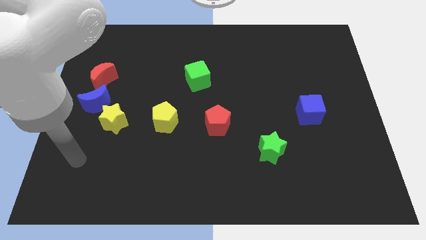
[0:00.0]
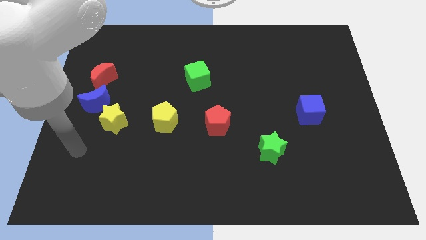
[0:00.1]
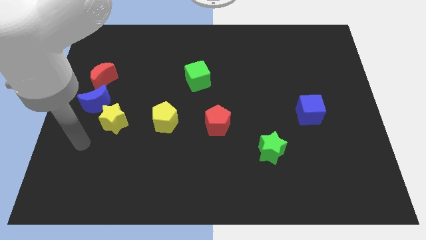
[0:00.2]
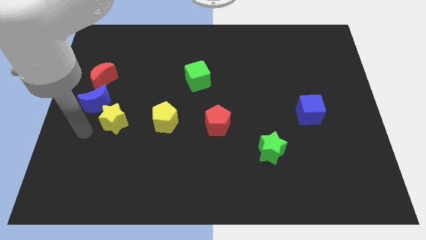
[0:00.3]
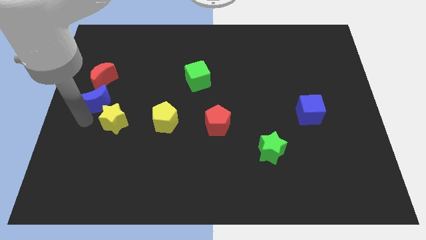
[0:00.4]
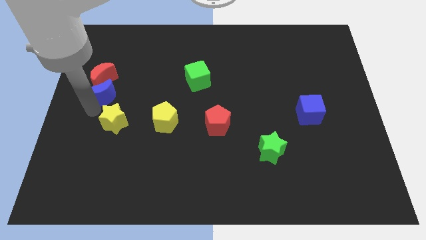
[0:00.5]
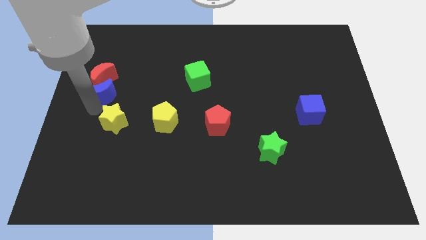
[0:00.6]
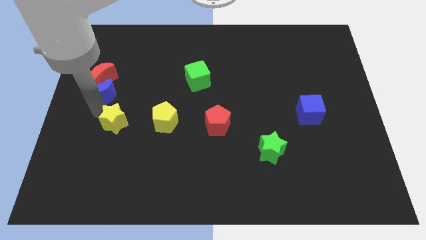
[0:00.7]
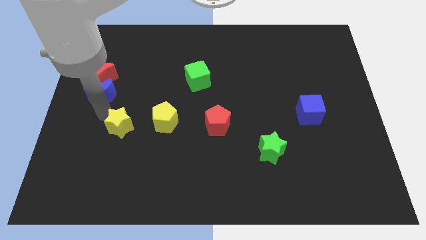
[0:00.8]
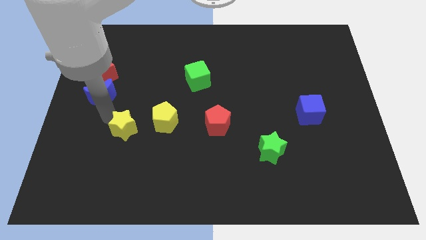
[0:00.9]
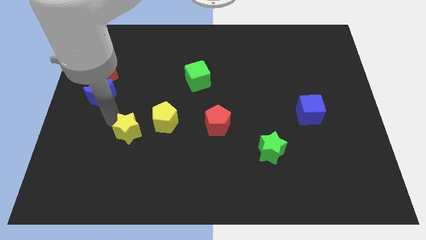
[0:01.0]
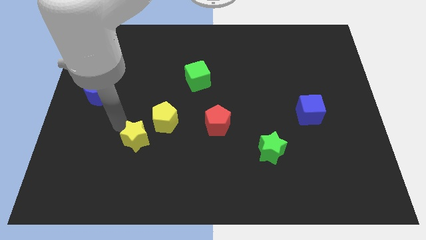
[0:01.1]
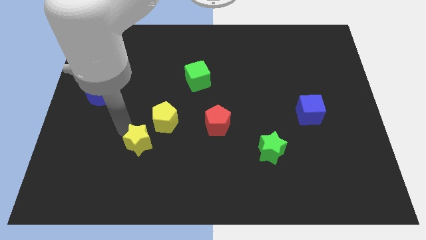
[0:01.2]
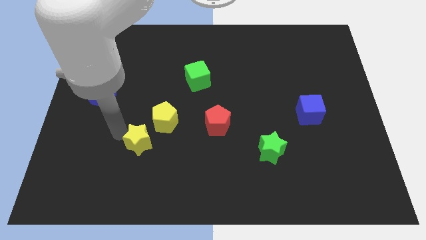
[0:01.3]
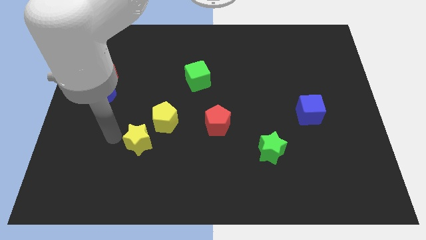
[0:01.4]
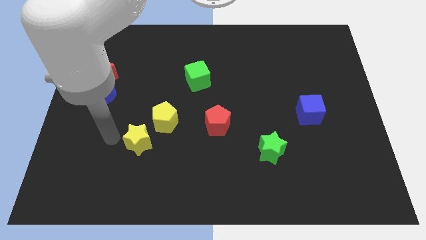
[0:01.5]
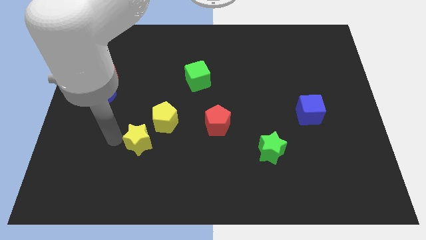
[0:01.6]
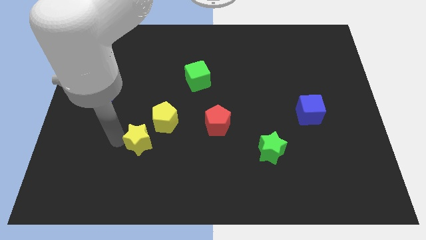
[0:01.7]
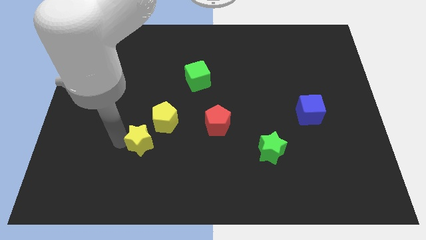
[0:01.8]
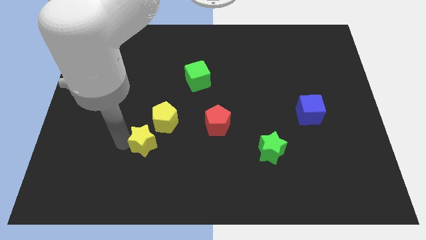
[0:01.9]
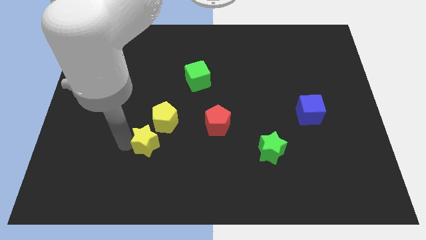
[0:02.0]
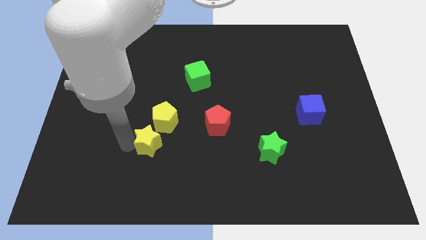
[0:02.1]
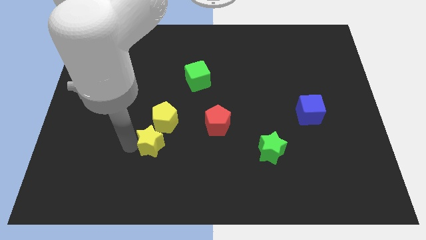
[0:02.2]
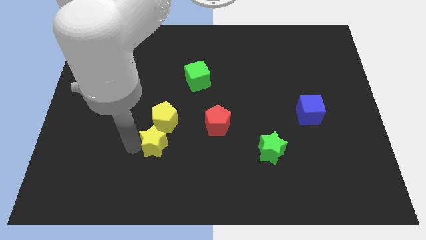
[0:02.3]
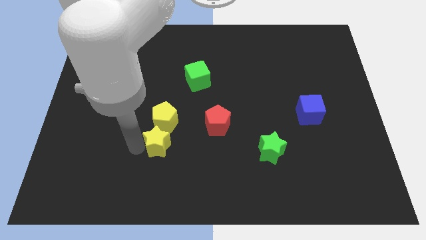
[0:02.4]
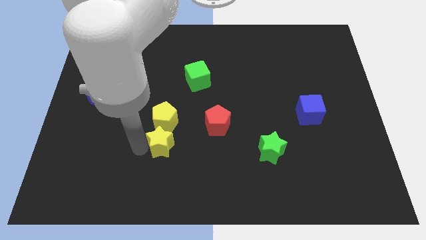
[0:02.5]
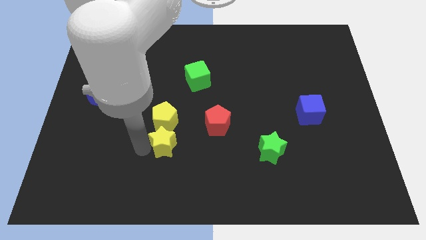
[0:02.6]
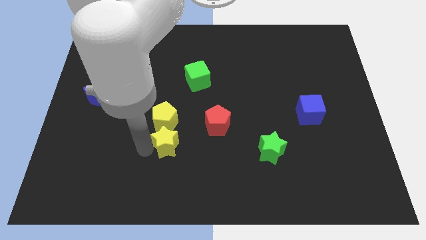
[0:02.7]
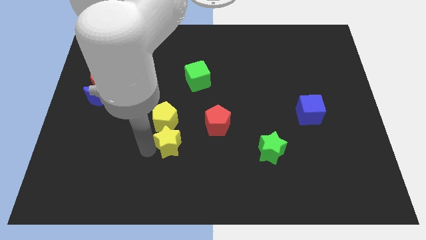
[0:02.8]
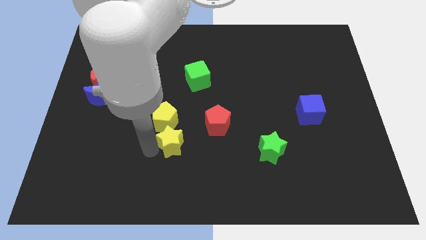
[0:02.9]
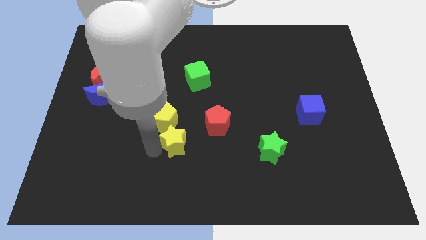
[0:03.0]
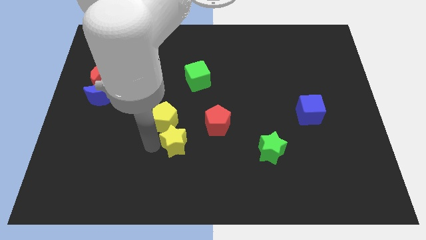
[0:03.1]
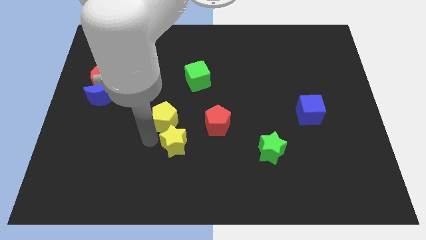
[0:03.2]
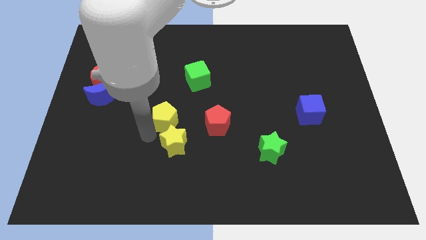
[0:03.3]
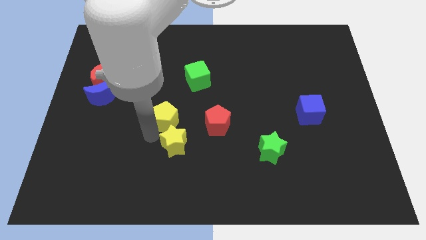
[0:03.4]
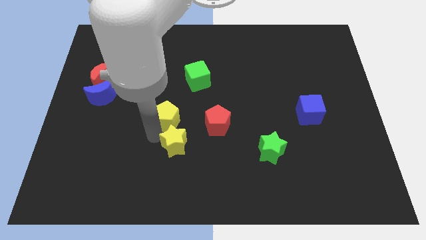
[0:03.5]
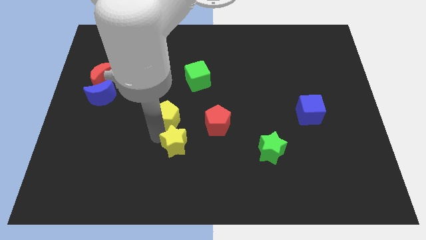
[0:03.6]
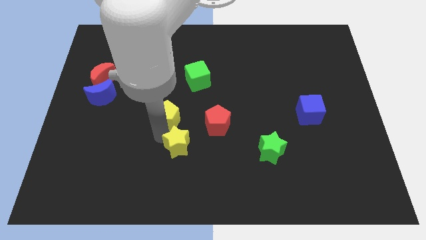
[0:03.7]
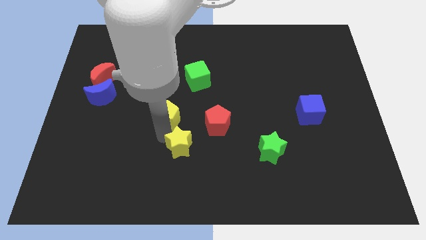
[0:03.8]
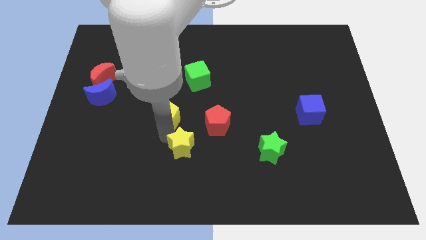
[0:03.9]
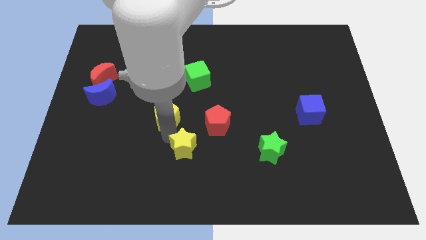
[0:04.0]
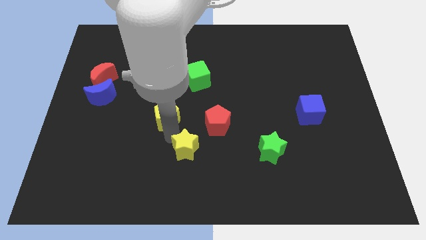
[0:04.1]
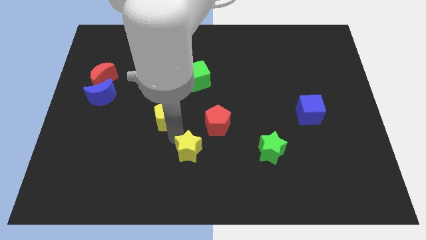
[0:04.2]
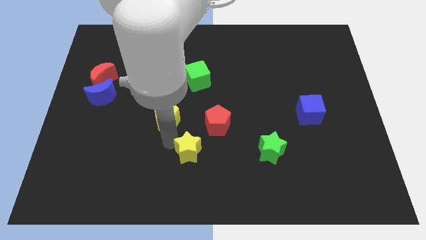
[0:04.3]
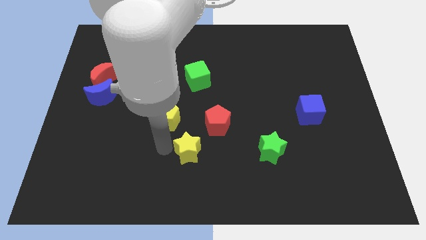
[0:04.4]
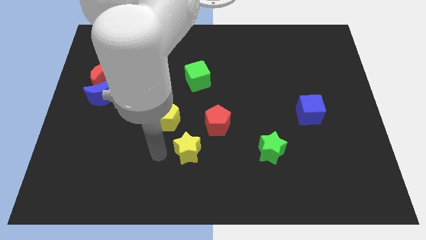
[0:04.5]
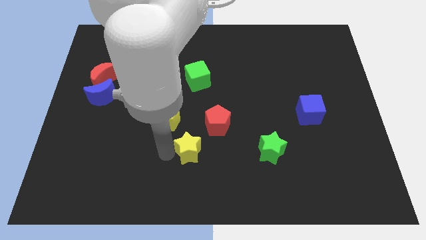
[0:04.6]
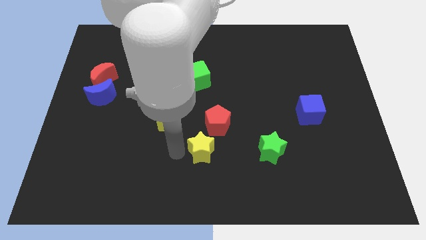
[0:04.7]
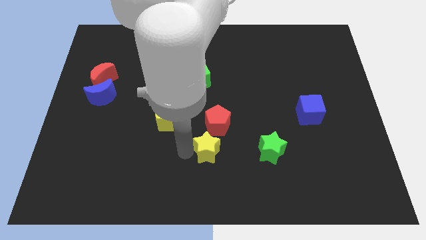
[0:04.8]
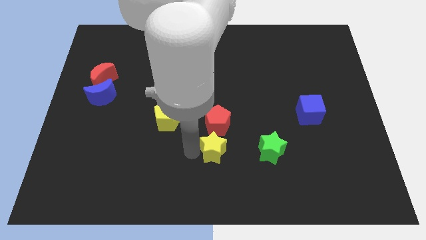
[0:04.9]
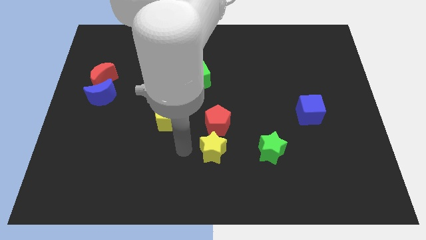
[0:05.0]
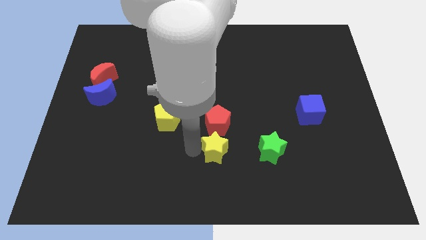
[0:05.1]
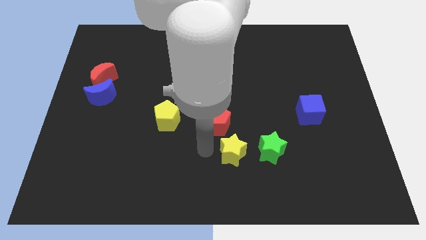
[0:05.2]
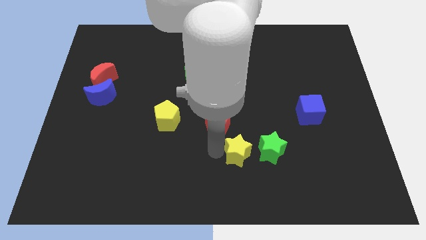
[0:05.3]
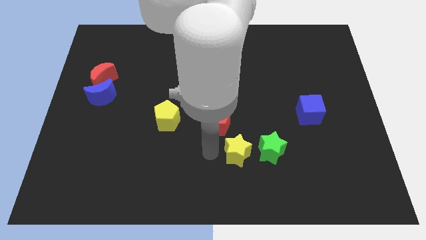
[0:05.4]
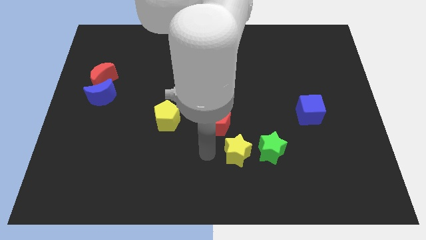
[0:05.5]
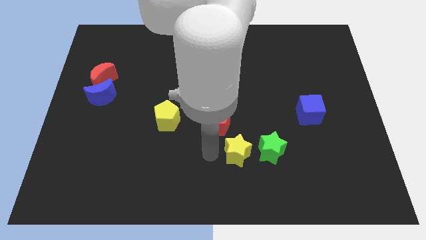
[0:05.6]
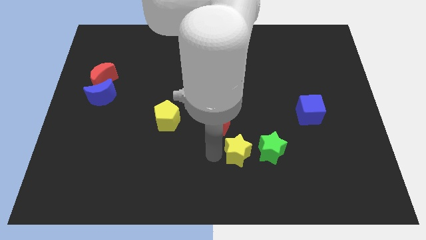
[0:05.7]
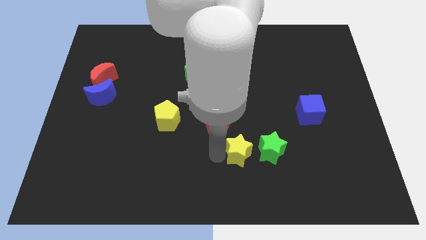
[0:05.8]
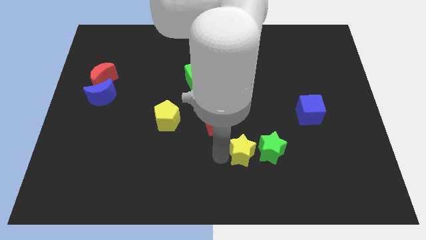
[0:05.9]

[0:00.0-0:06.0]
slide the yellow star towards the green star

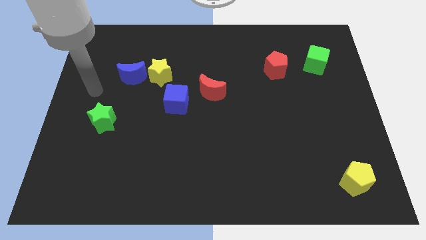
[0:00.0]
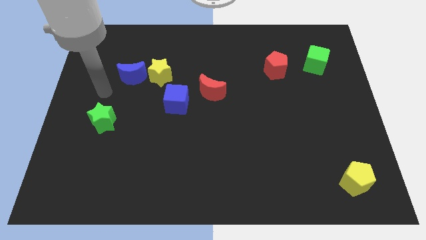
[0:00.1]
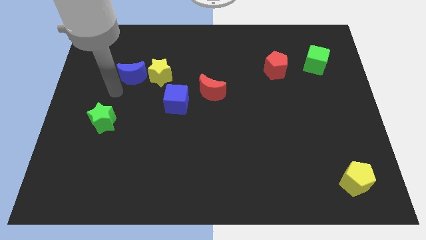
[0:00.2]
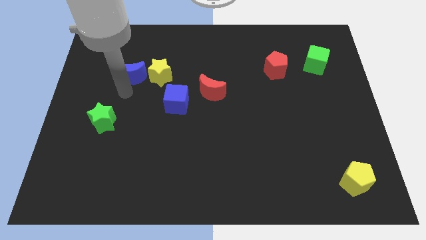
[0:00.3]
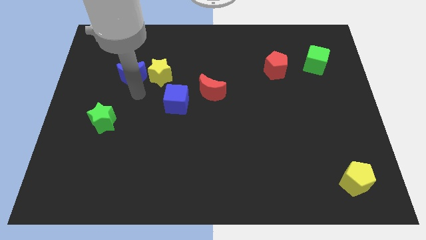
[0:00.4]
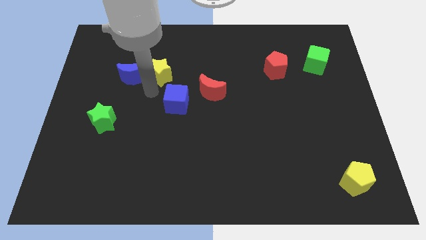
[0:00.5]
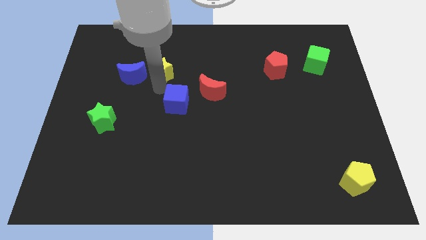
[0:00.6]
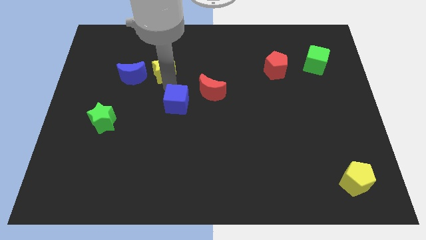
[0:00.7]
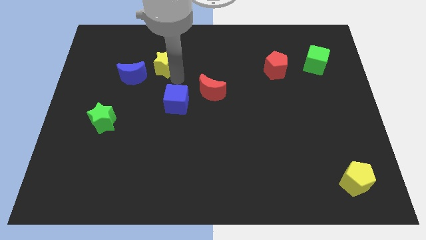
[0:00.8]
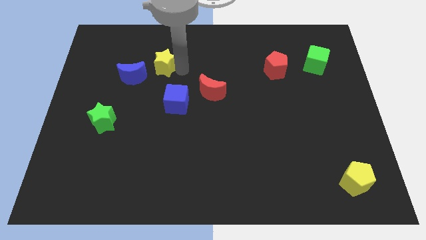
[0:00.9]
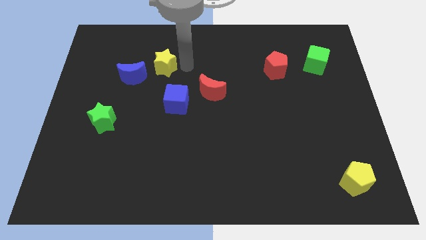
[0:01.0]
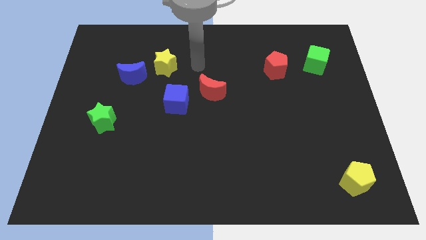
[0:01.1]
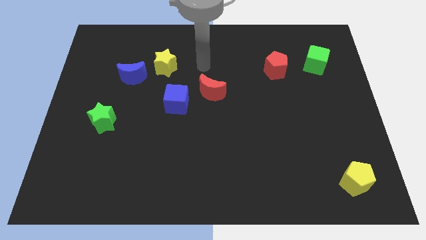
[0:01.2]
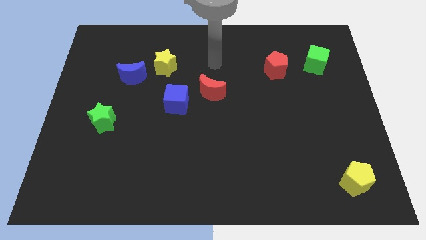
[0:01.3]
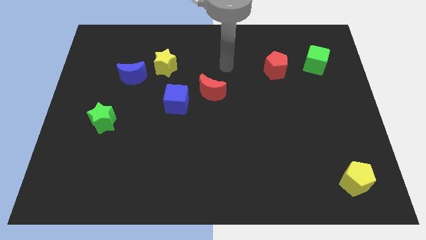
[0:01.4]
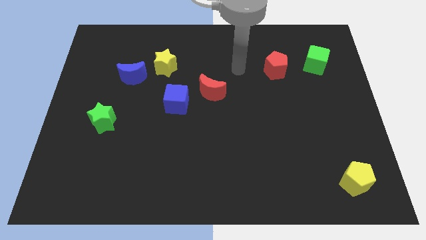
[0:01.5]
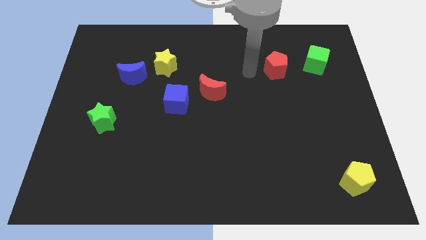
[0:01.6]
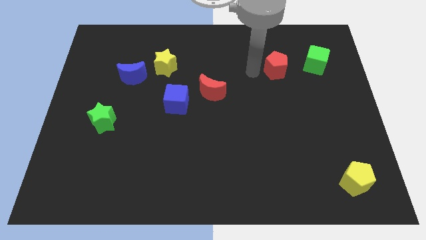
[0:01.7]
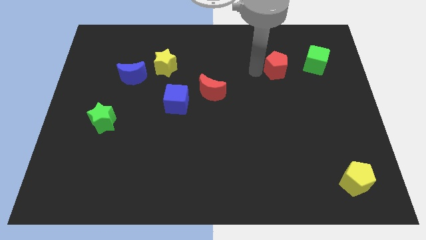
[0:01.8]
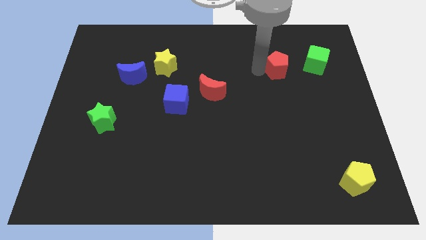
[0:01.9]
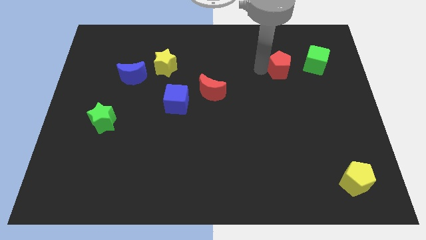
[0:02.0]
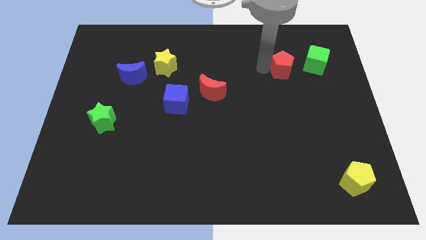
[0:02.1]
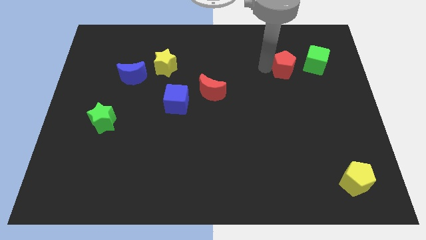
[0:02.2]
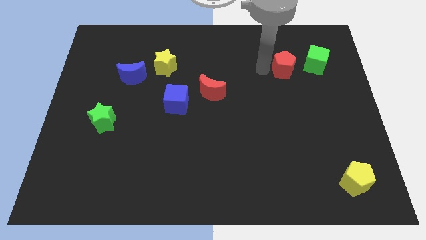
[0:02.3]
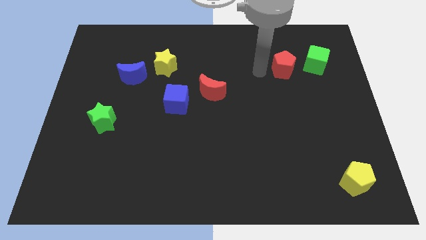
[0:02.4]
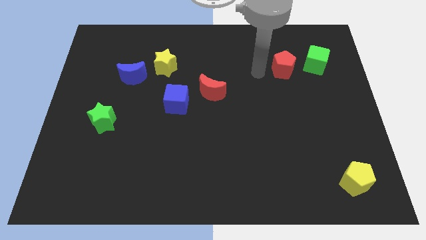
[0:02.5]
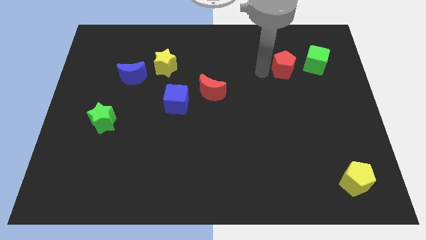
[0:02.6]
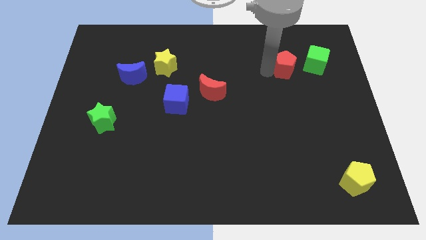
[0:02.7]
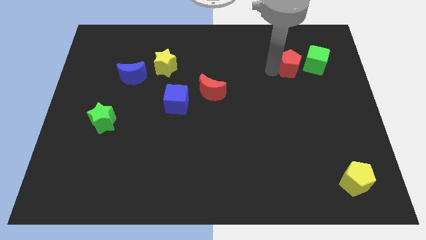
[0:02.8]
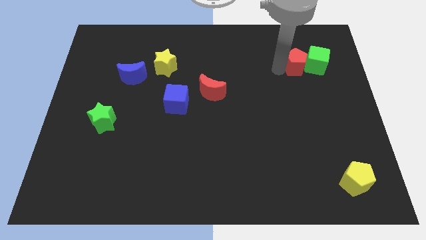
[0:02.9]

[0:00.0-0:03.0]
slide the red pentagon next to the green cube
